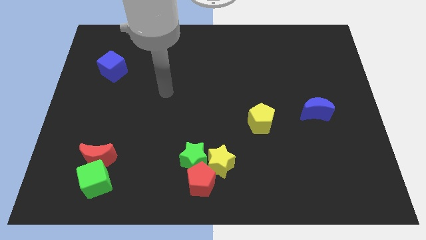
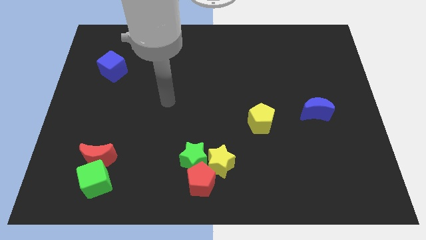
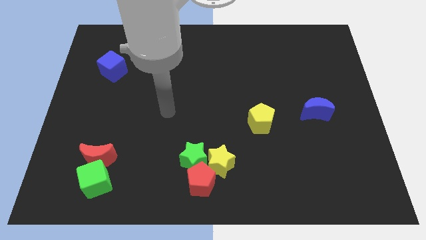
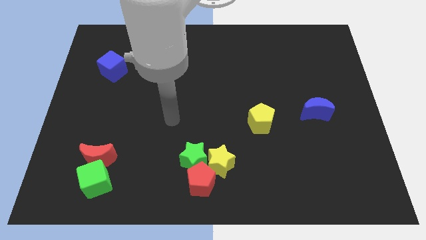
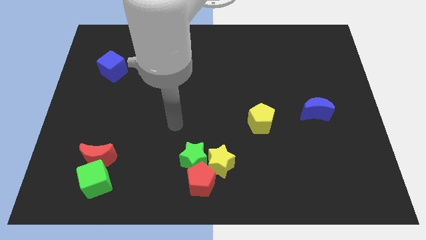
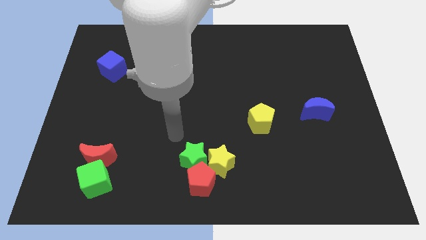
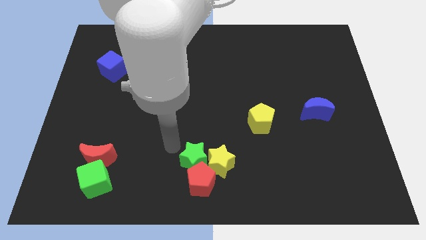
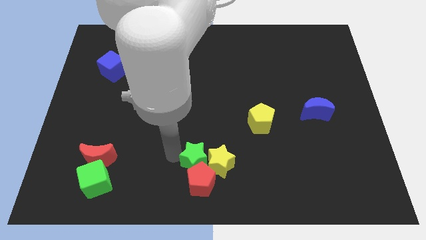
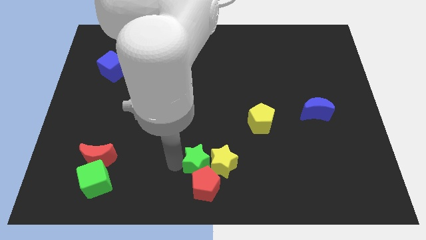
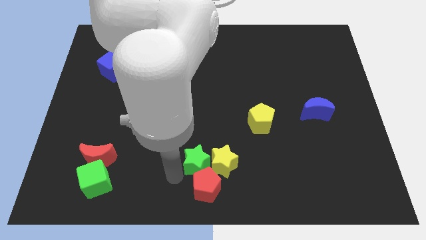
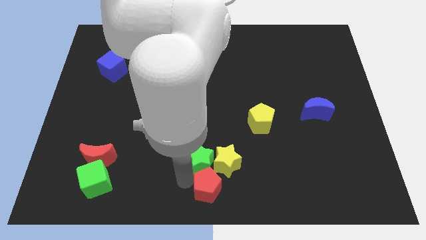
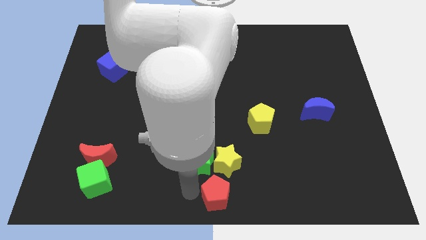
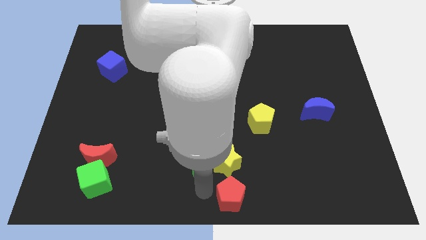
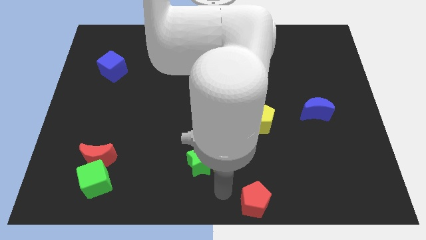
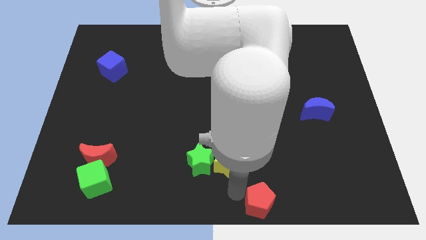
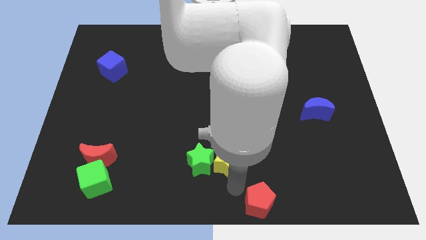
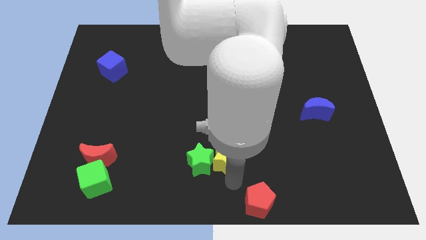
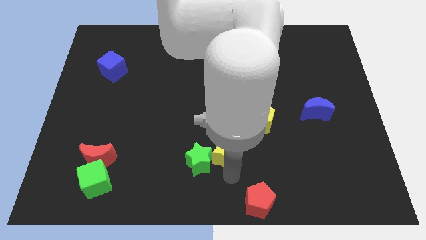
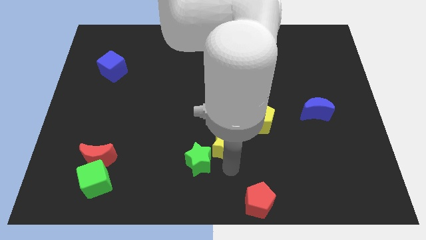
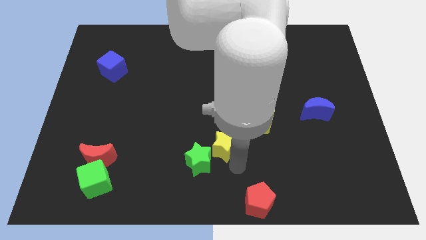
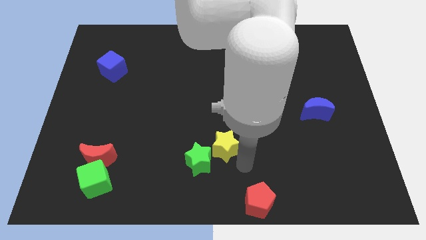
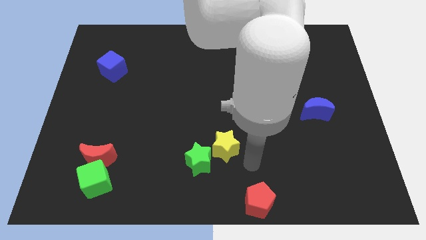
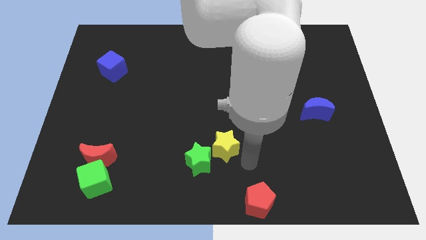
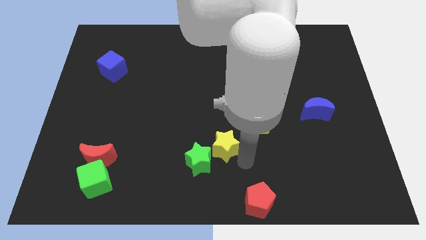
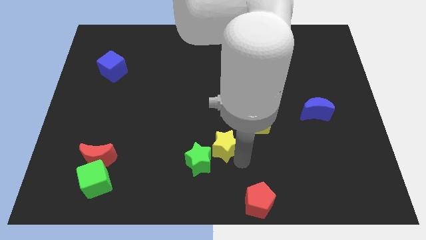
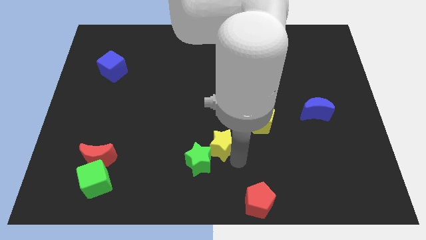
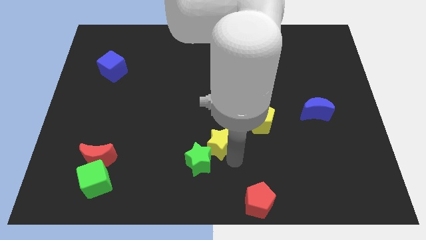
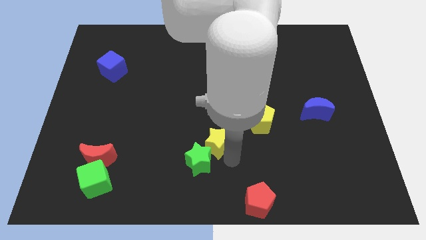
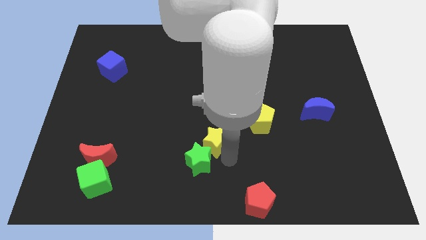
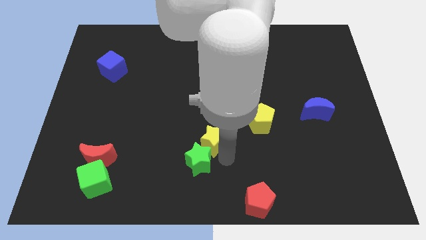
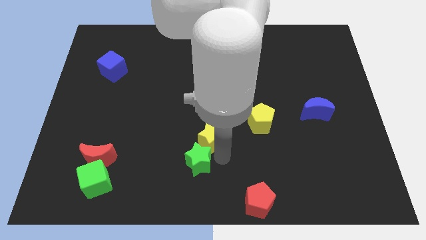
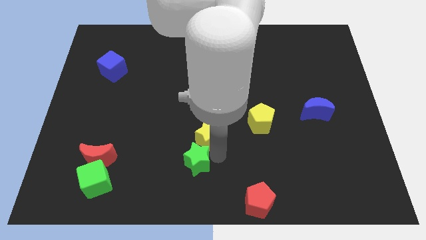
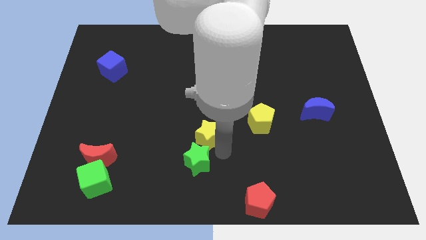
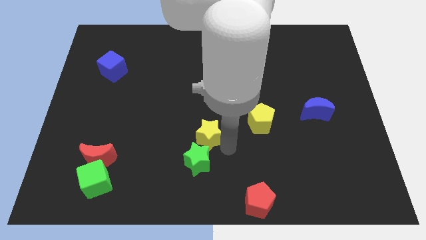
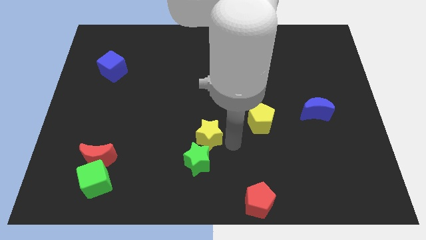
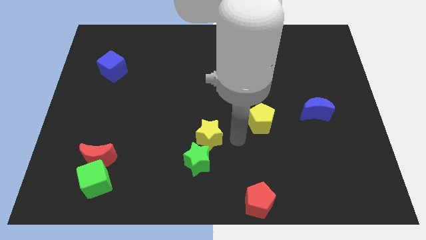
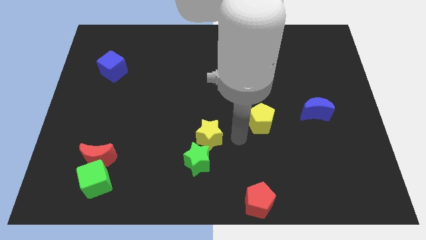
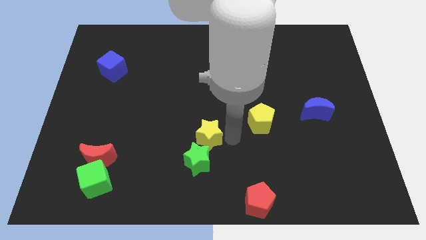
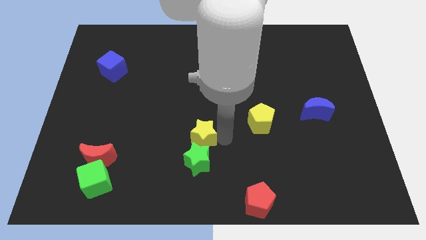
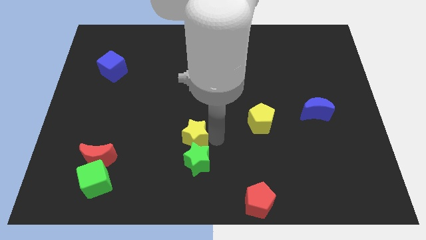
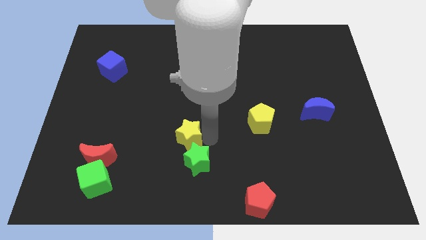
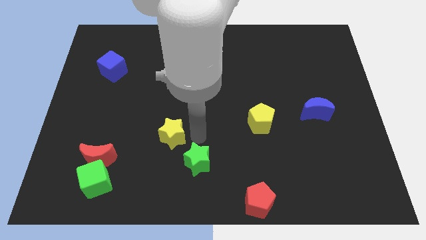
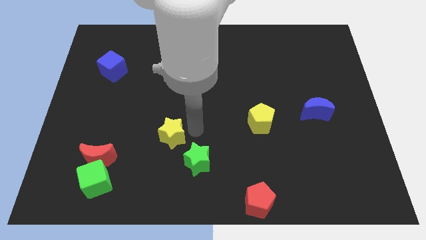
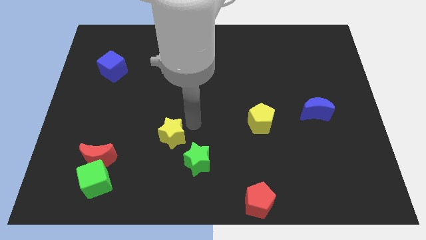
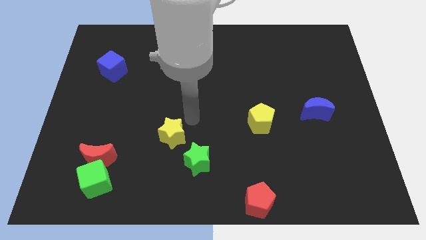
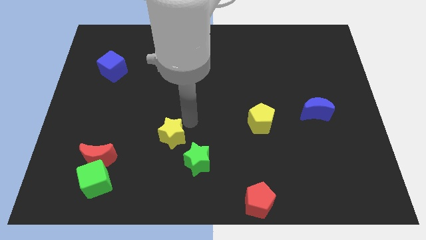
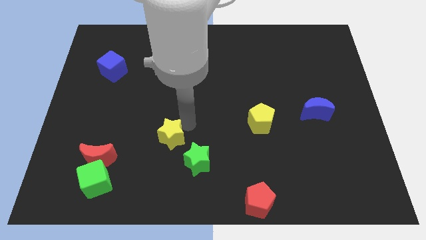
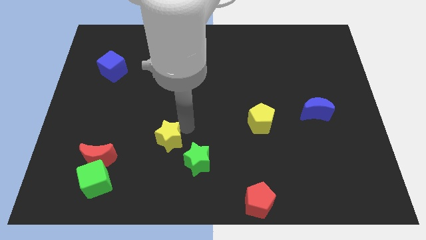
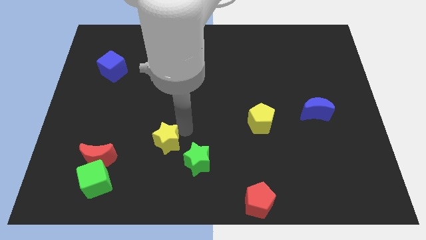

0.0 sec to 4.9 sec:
slide the yellow star left of the green star

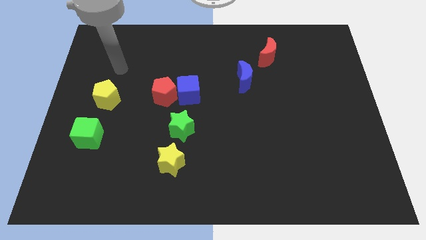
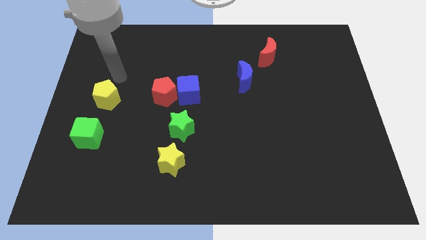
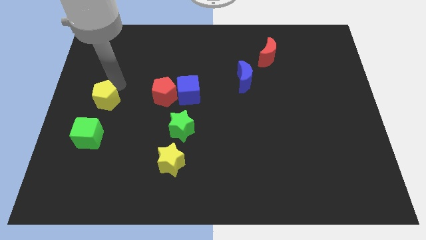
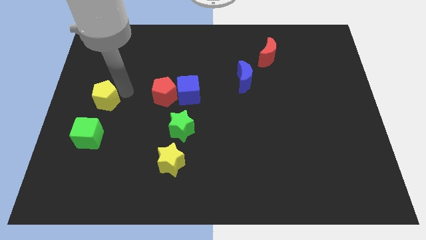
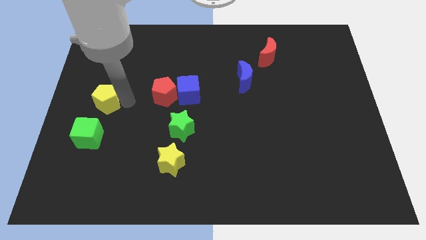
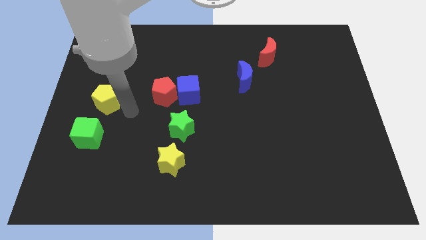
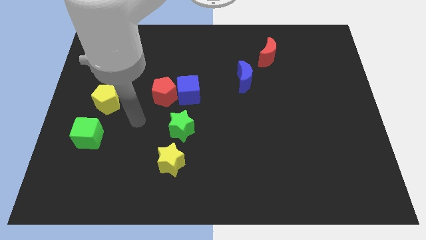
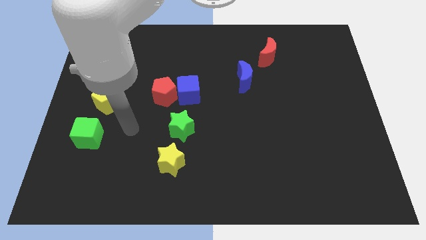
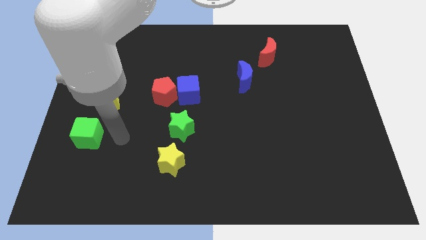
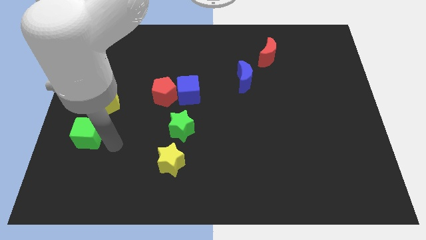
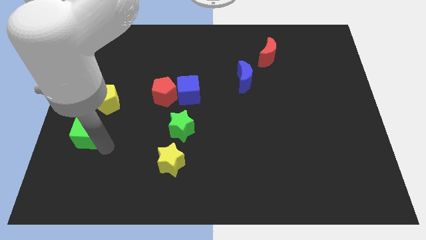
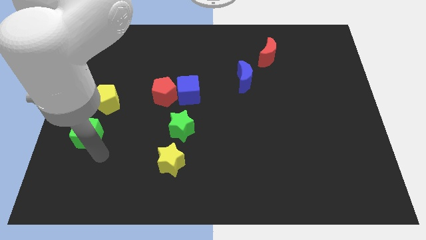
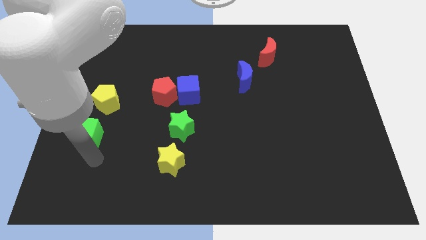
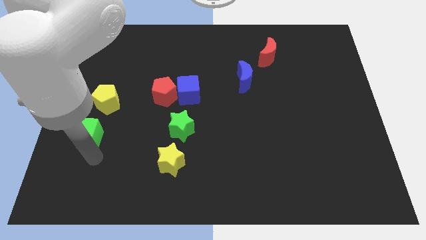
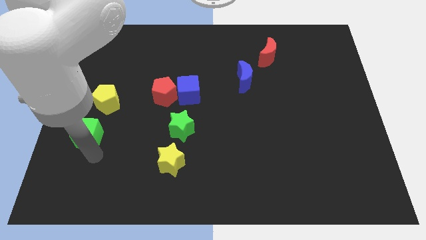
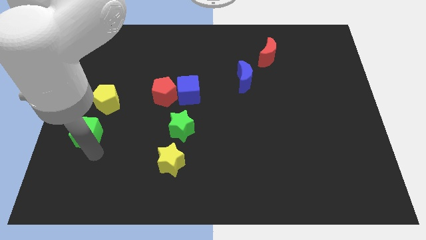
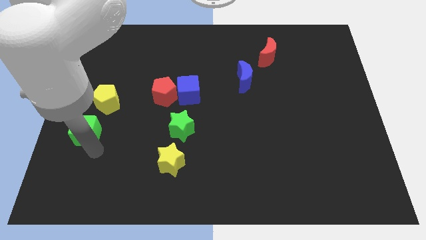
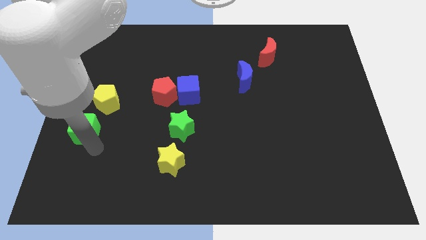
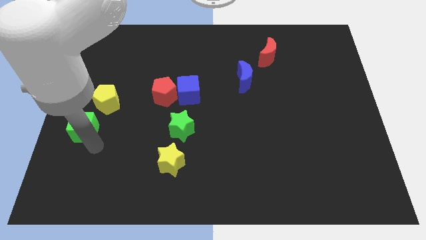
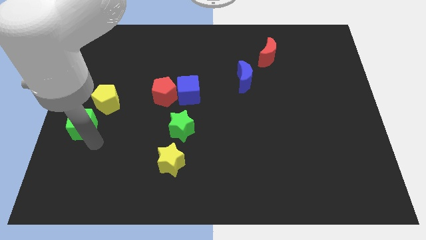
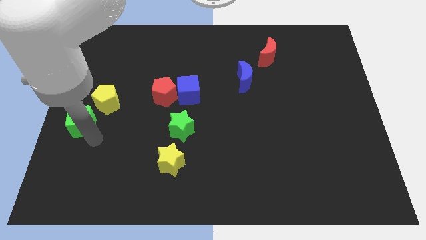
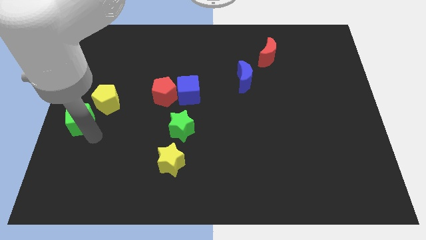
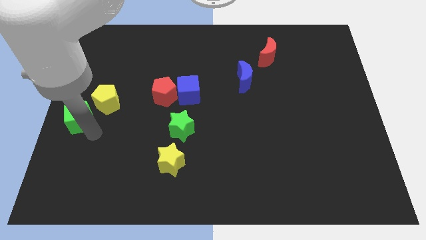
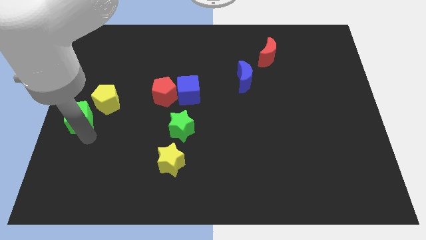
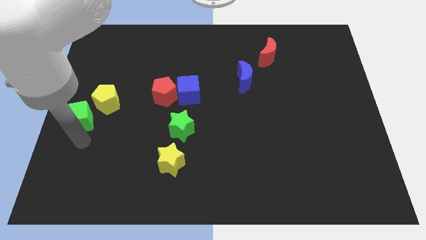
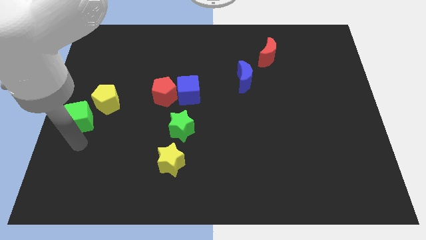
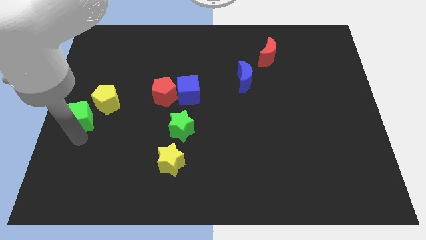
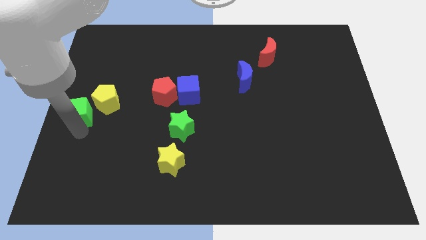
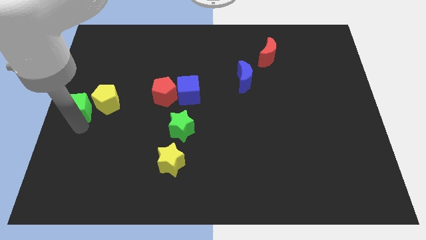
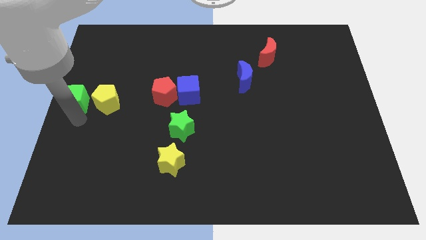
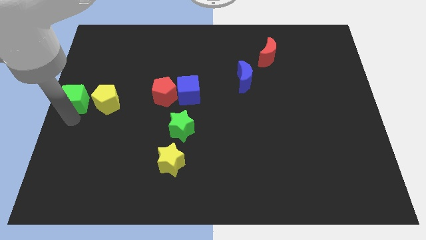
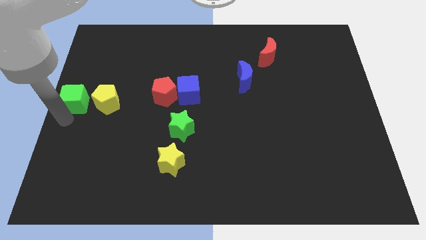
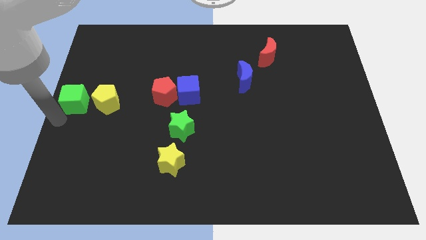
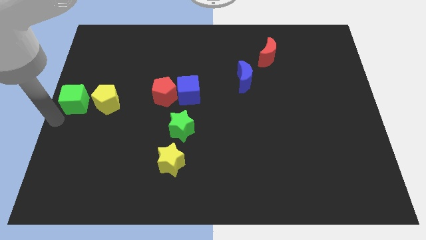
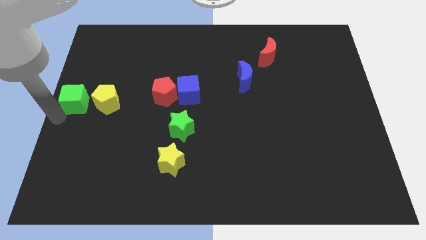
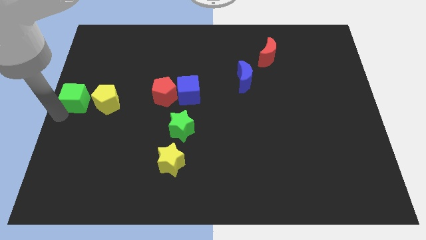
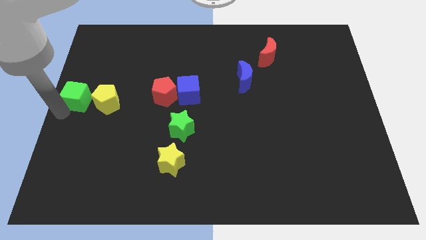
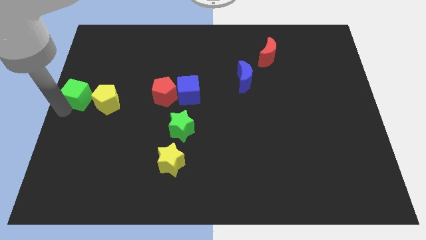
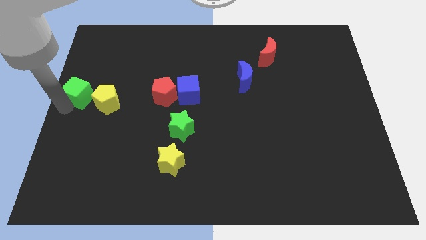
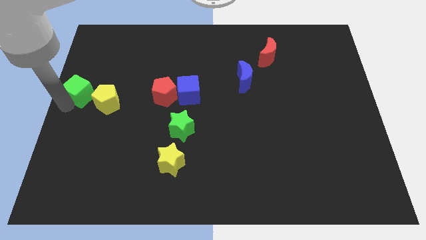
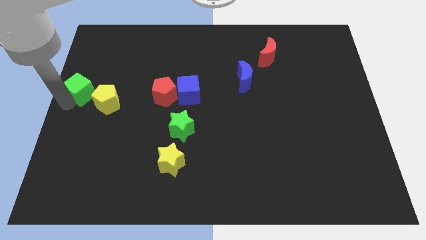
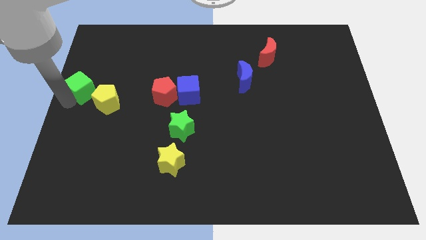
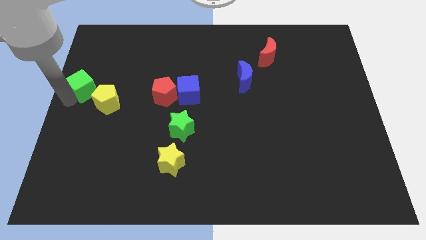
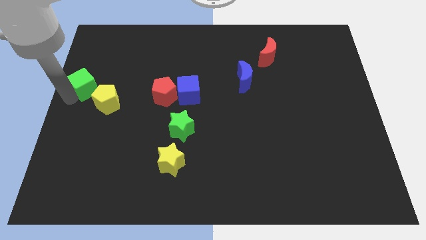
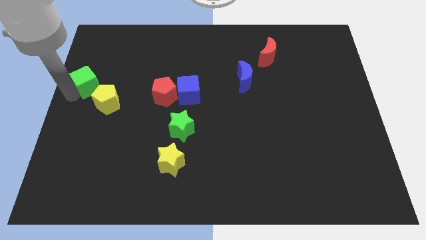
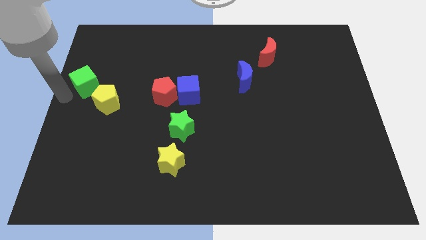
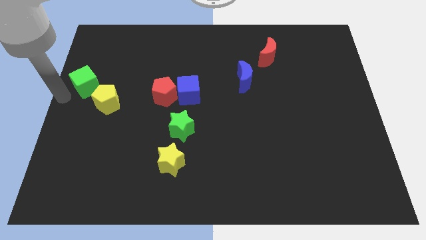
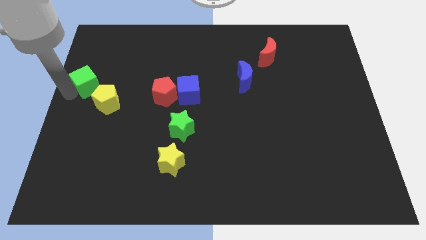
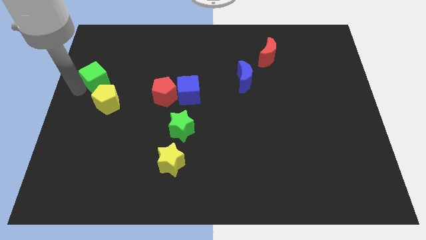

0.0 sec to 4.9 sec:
put the green cube to the top side of the yellow pentagon
